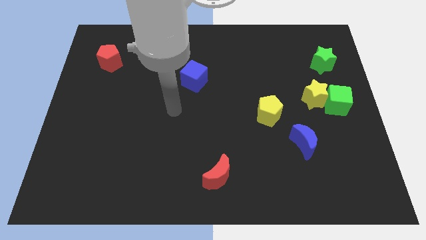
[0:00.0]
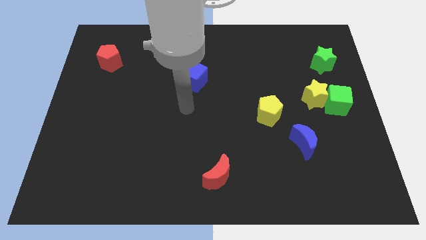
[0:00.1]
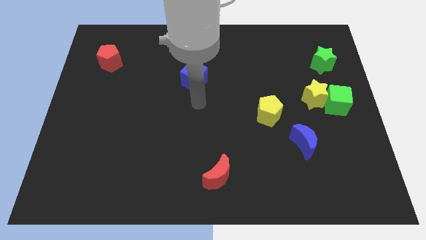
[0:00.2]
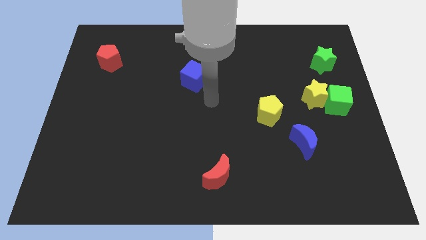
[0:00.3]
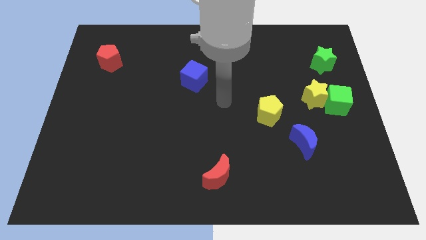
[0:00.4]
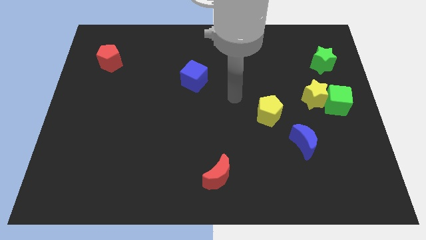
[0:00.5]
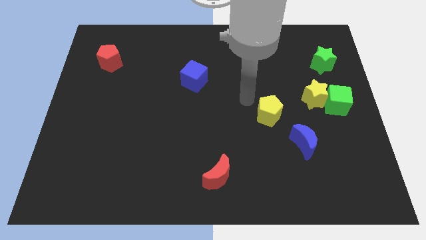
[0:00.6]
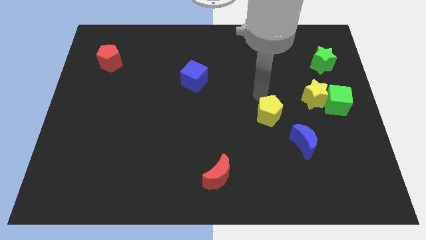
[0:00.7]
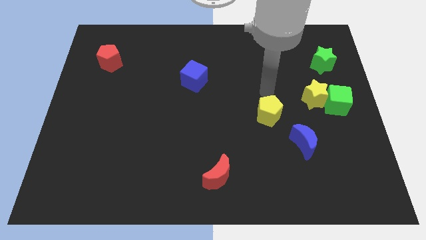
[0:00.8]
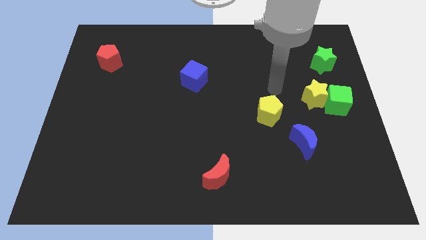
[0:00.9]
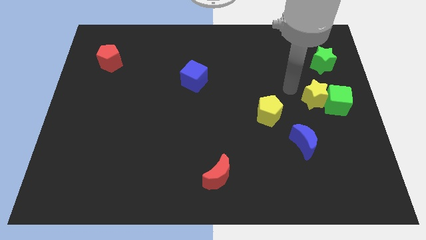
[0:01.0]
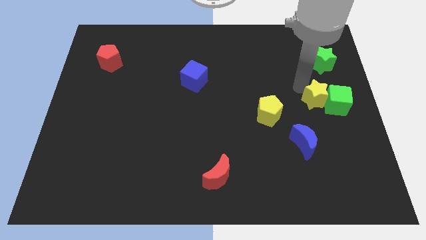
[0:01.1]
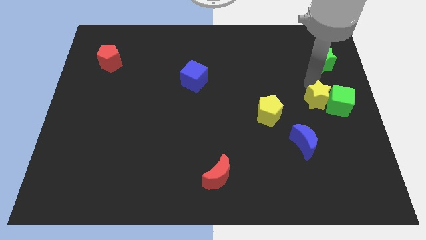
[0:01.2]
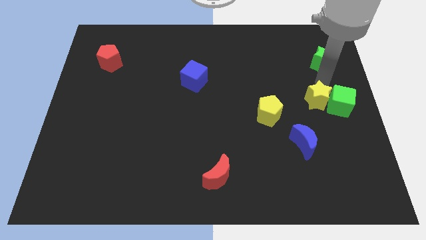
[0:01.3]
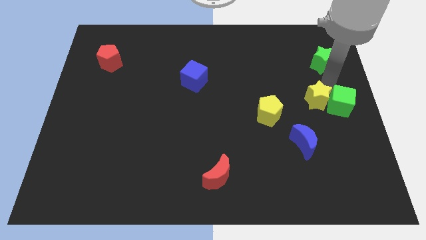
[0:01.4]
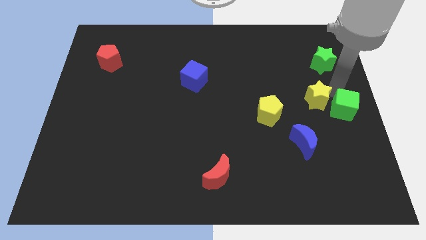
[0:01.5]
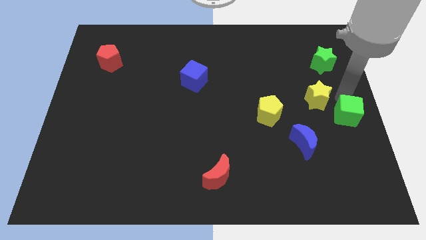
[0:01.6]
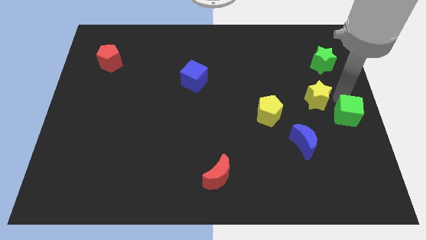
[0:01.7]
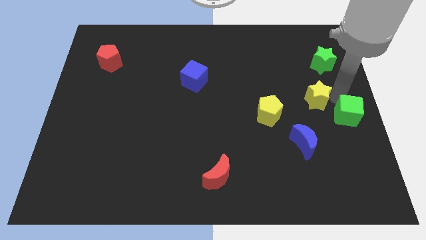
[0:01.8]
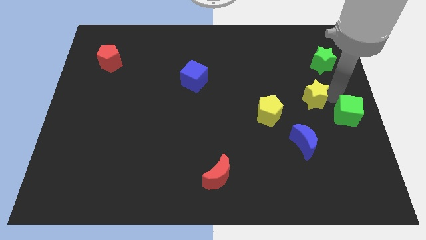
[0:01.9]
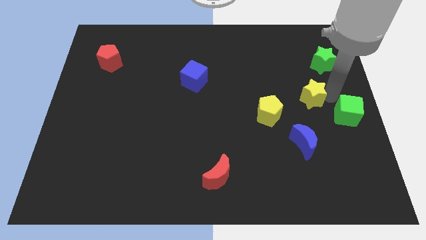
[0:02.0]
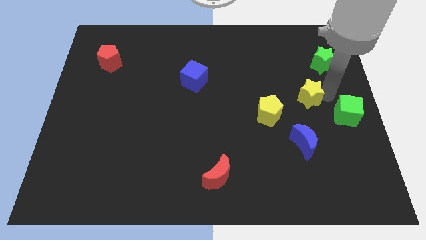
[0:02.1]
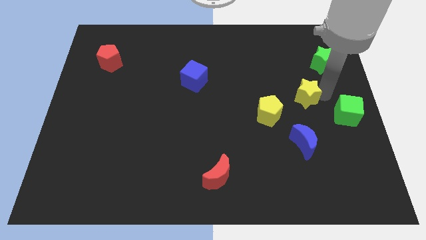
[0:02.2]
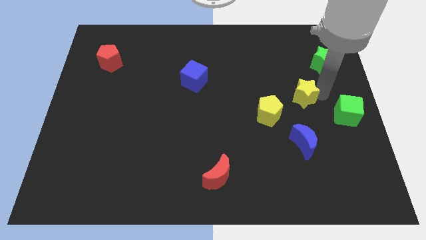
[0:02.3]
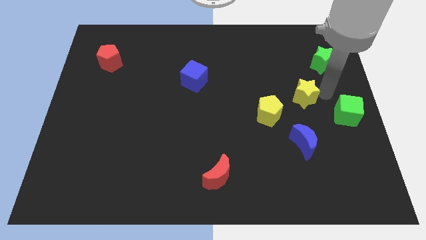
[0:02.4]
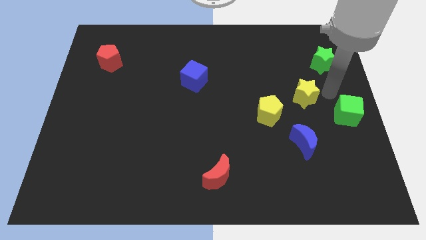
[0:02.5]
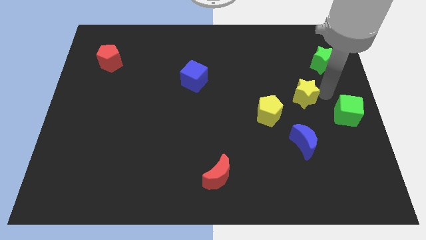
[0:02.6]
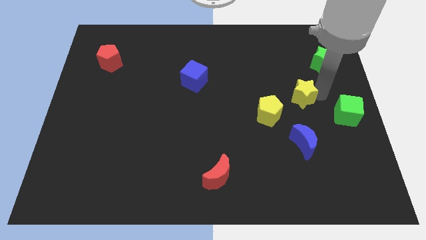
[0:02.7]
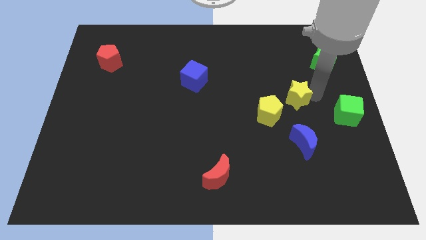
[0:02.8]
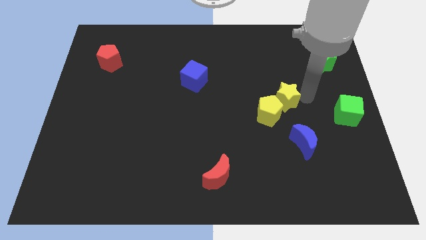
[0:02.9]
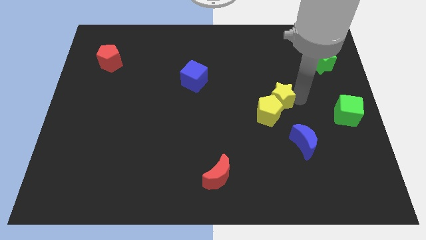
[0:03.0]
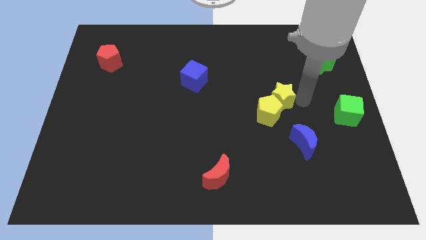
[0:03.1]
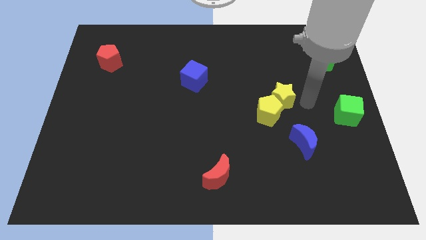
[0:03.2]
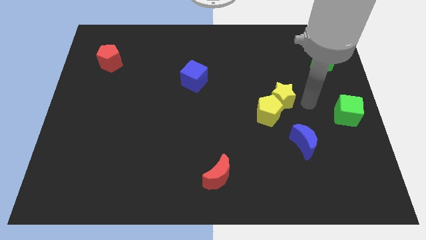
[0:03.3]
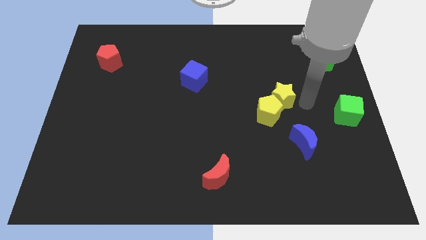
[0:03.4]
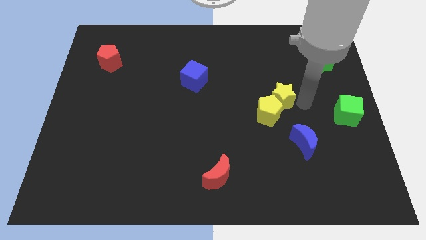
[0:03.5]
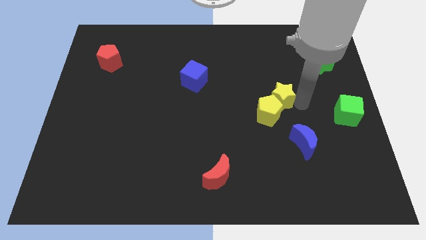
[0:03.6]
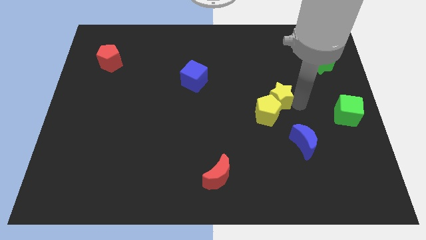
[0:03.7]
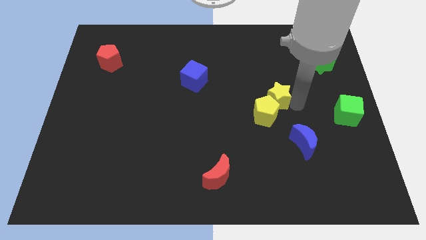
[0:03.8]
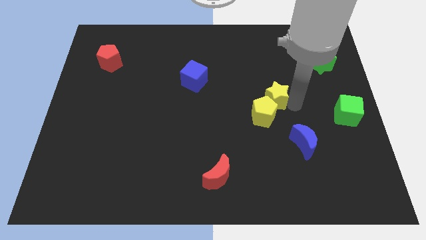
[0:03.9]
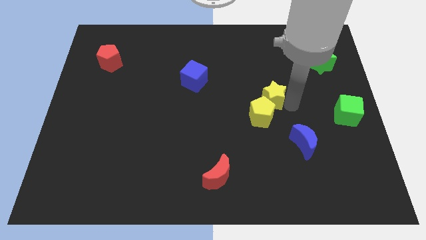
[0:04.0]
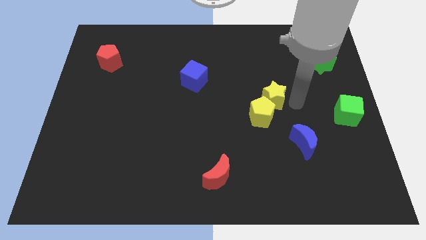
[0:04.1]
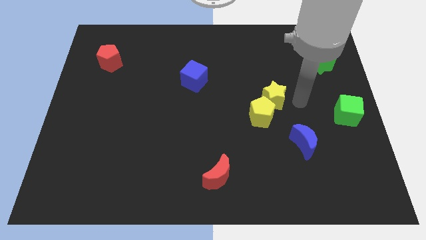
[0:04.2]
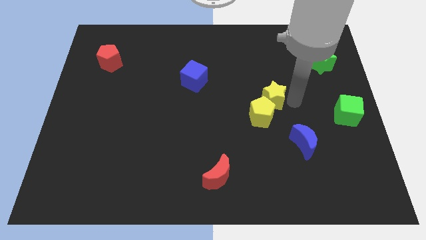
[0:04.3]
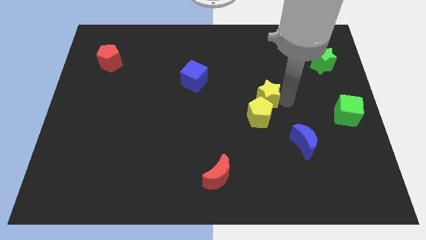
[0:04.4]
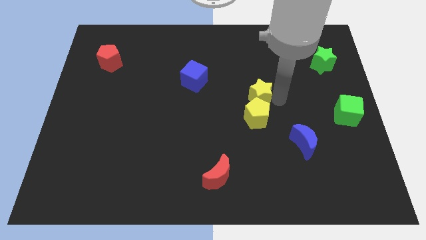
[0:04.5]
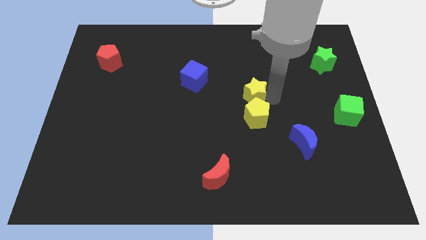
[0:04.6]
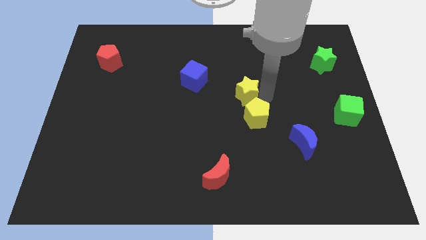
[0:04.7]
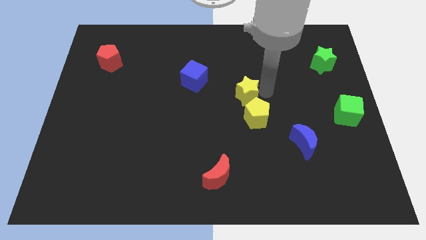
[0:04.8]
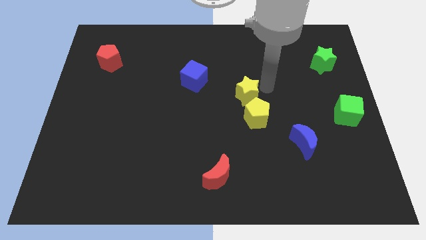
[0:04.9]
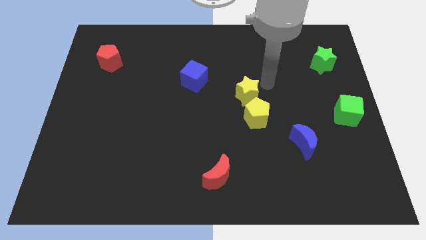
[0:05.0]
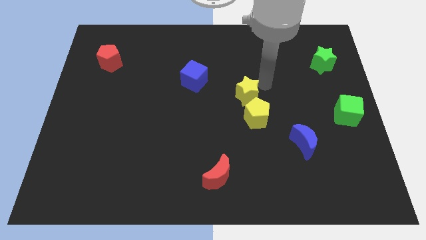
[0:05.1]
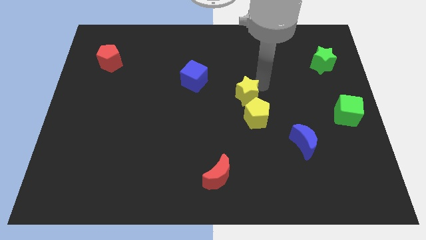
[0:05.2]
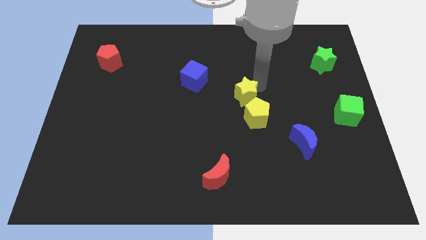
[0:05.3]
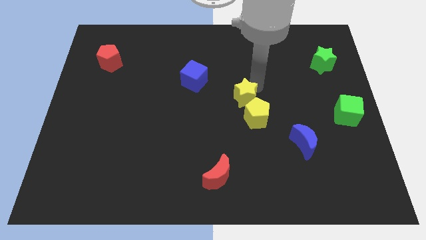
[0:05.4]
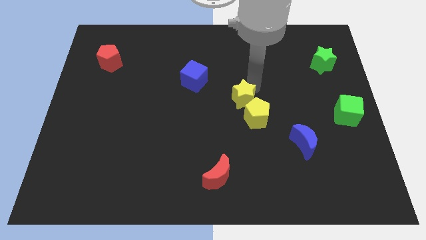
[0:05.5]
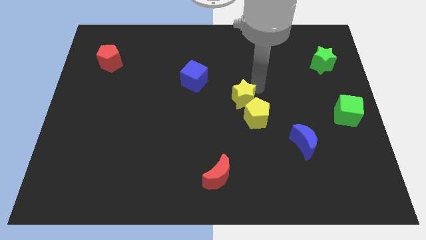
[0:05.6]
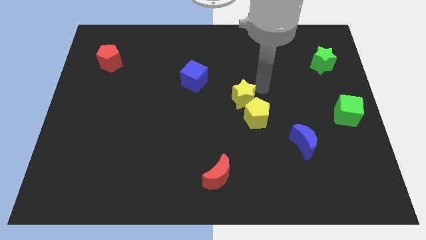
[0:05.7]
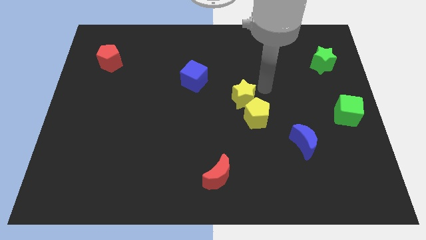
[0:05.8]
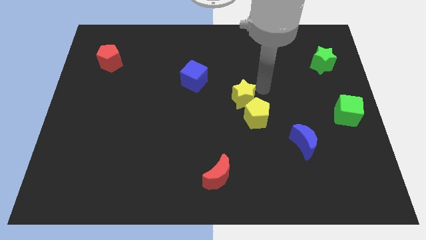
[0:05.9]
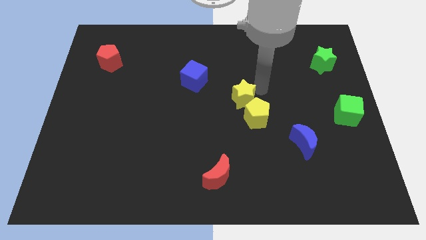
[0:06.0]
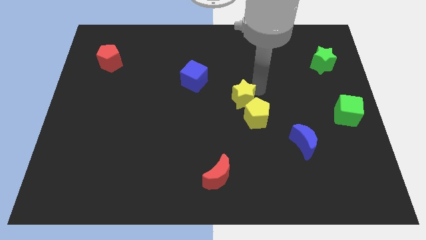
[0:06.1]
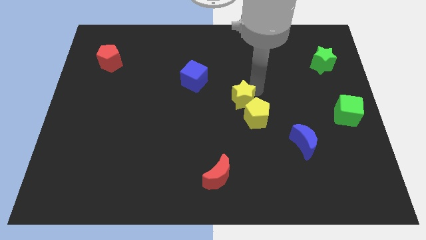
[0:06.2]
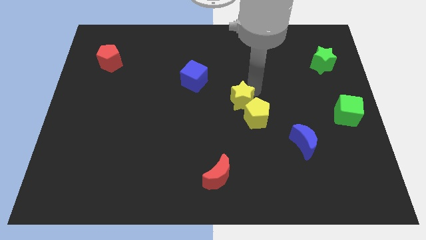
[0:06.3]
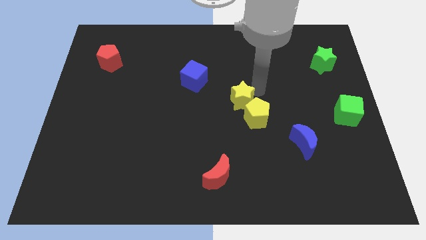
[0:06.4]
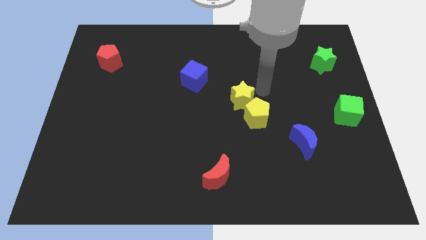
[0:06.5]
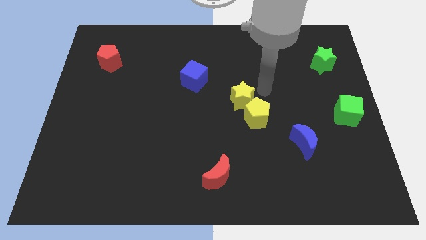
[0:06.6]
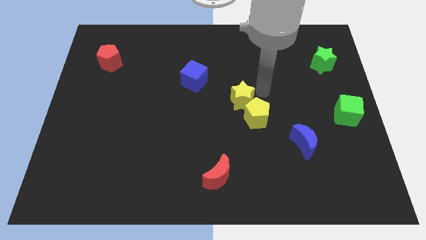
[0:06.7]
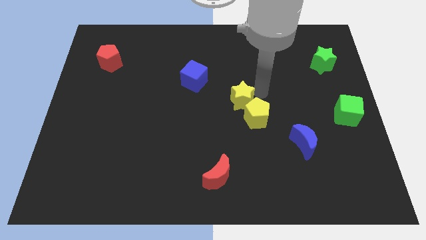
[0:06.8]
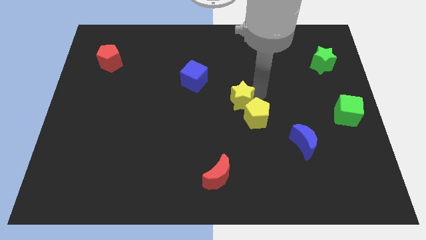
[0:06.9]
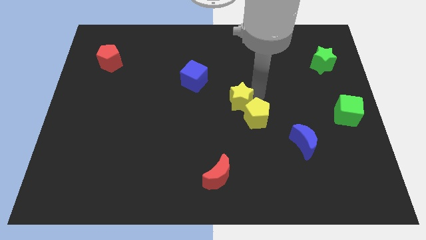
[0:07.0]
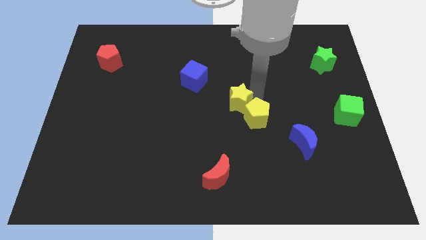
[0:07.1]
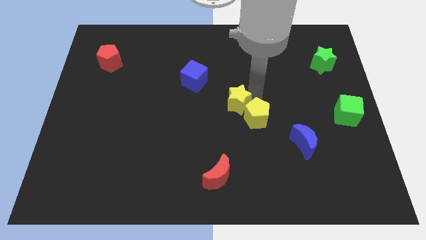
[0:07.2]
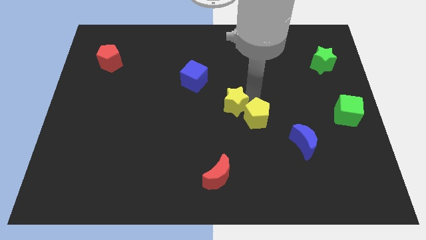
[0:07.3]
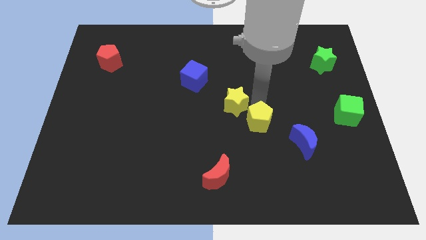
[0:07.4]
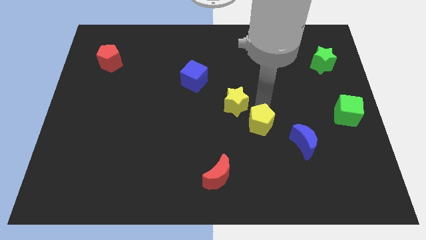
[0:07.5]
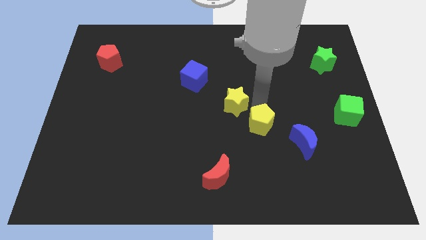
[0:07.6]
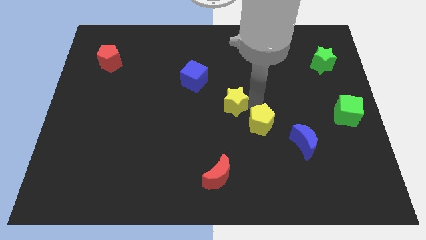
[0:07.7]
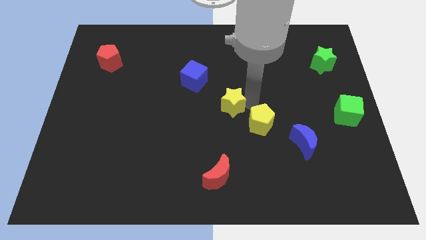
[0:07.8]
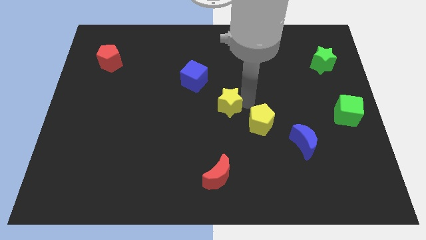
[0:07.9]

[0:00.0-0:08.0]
move the yellow star left
